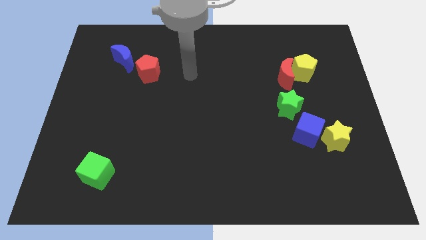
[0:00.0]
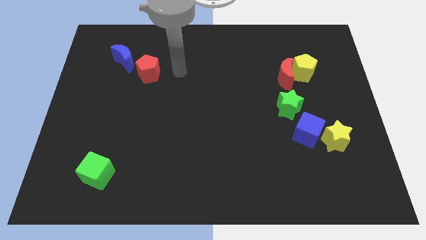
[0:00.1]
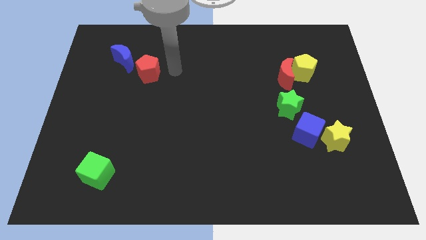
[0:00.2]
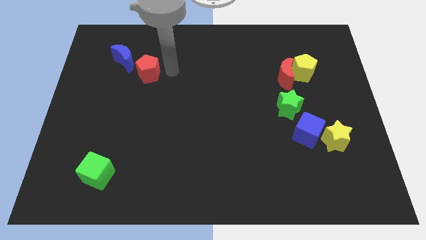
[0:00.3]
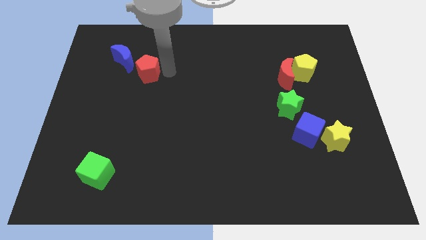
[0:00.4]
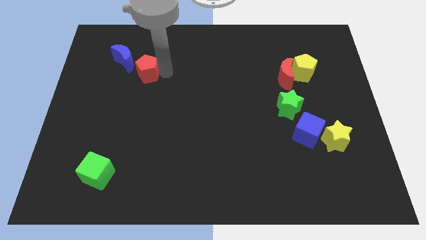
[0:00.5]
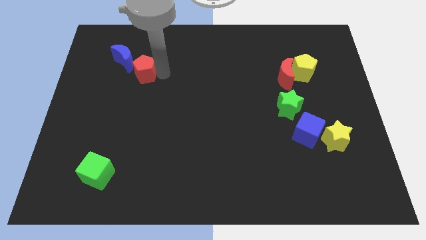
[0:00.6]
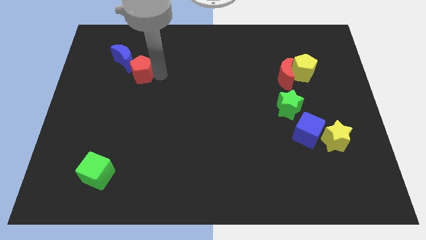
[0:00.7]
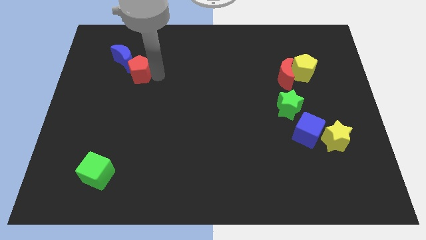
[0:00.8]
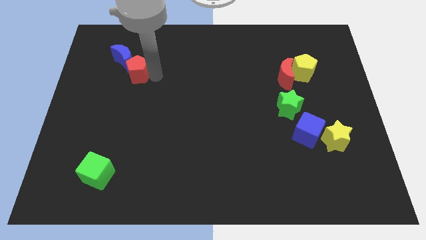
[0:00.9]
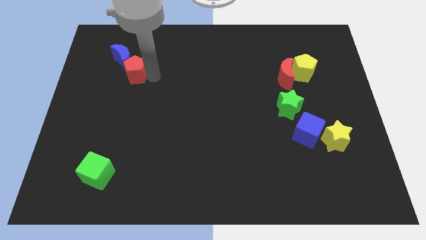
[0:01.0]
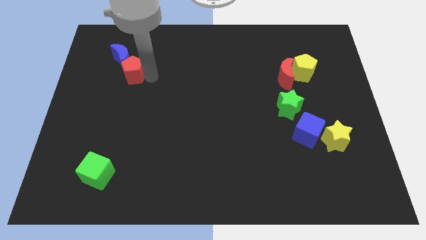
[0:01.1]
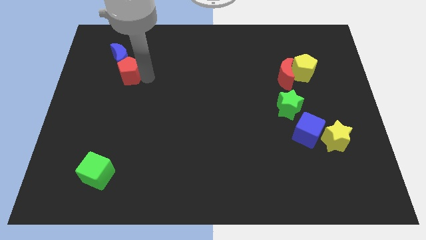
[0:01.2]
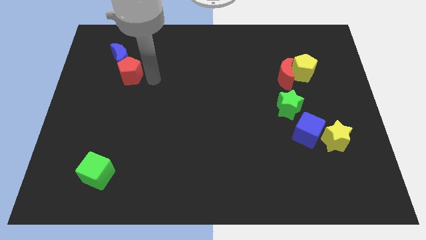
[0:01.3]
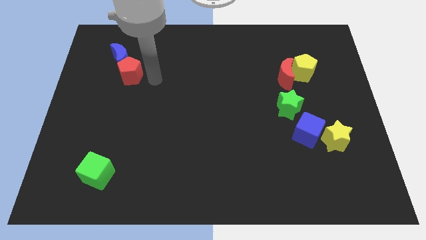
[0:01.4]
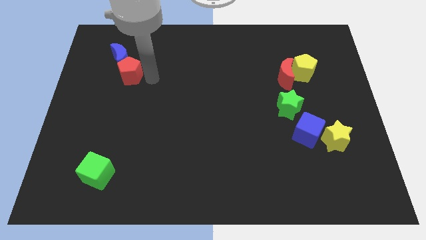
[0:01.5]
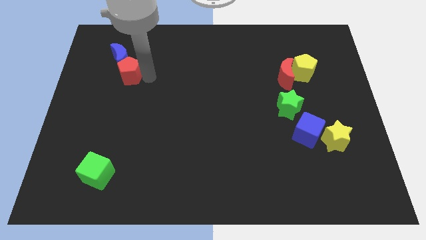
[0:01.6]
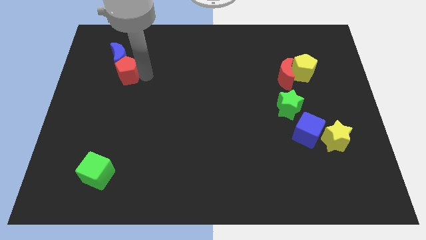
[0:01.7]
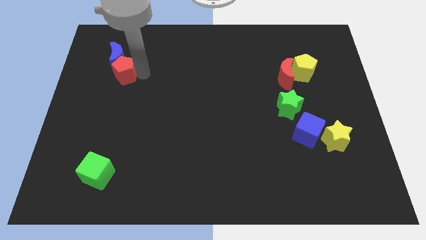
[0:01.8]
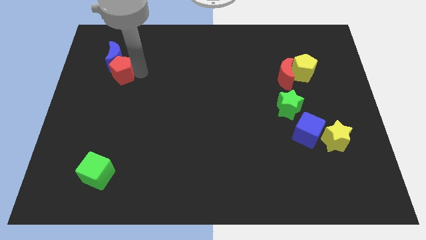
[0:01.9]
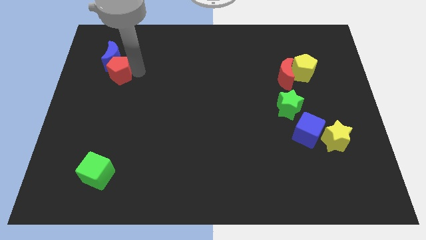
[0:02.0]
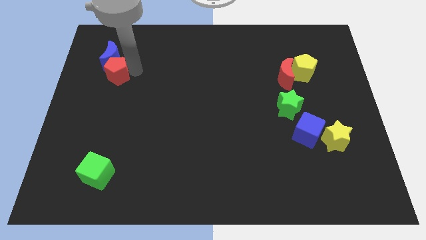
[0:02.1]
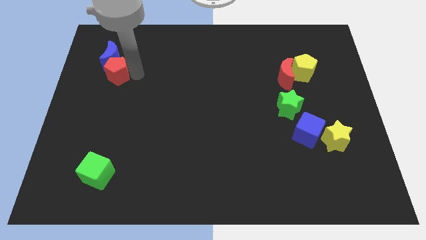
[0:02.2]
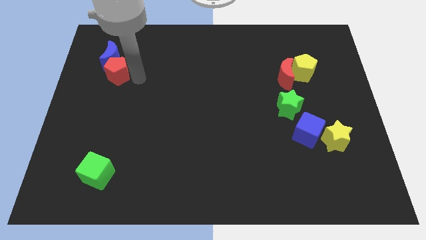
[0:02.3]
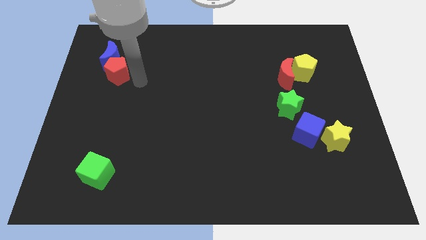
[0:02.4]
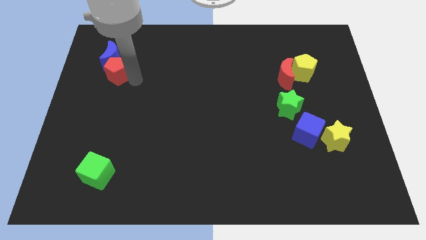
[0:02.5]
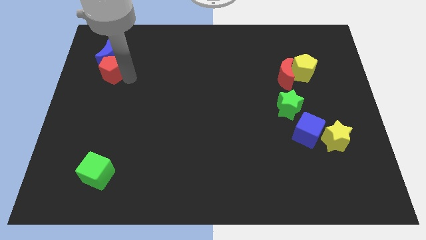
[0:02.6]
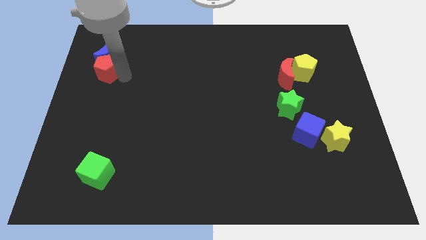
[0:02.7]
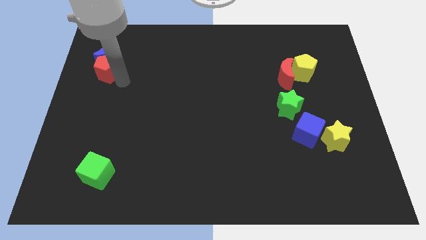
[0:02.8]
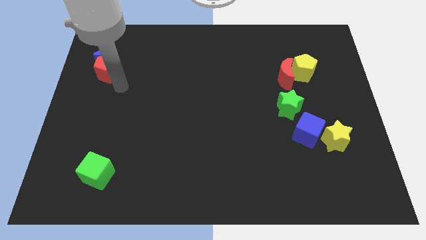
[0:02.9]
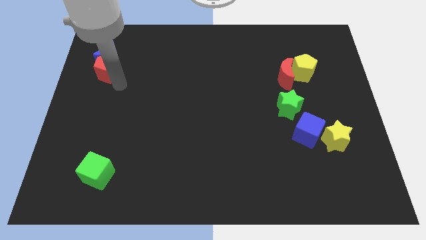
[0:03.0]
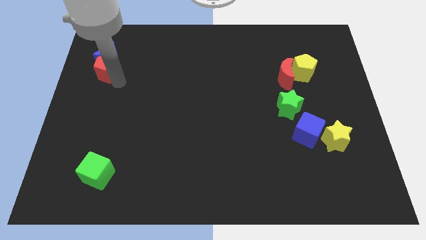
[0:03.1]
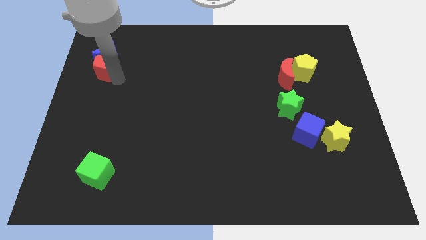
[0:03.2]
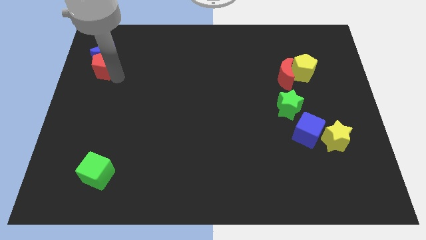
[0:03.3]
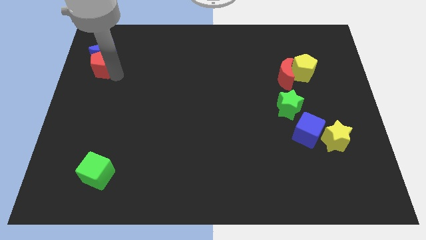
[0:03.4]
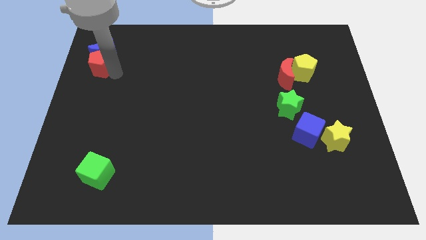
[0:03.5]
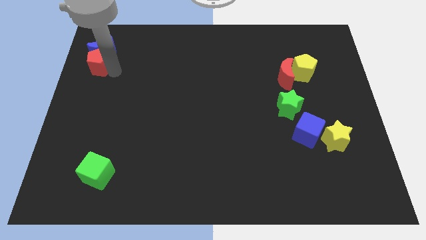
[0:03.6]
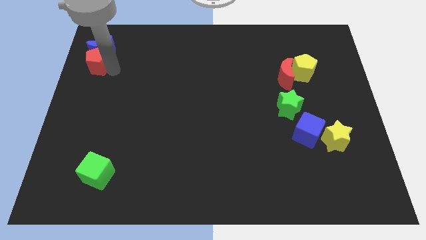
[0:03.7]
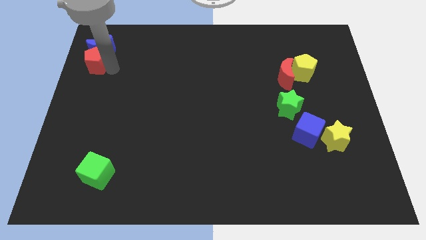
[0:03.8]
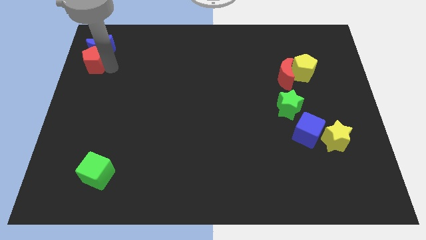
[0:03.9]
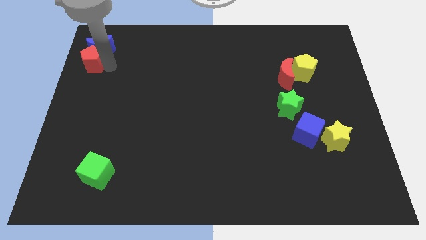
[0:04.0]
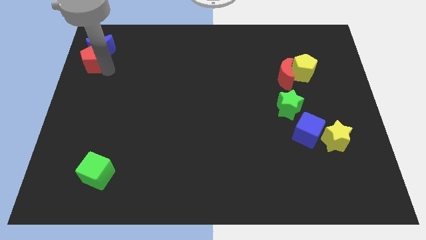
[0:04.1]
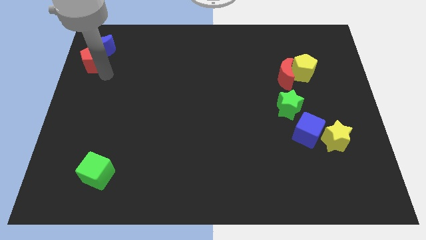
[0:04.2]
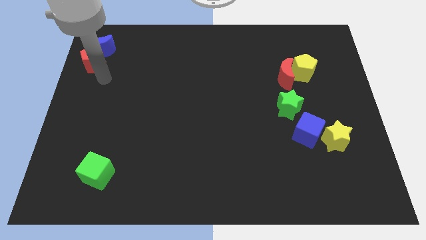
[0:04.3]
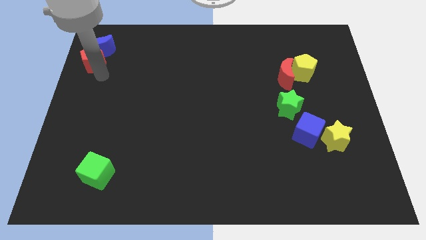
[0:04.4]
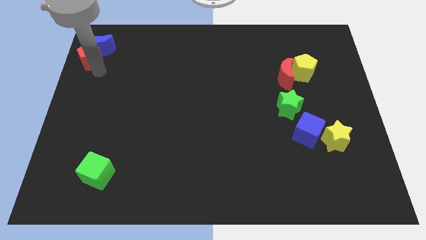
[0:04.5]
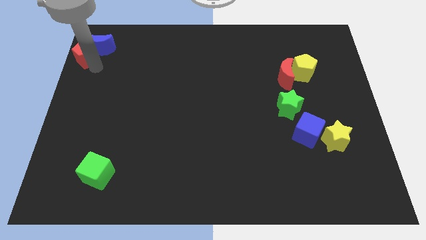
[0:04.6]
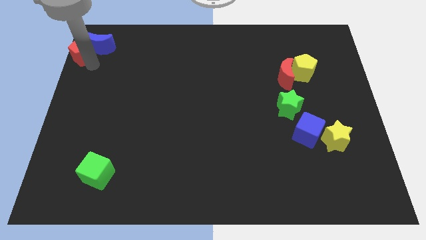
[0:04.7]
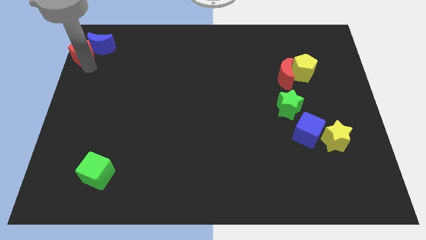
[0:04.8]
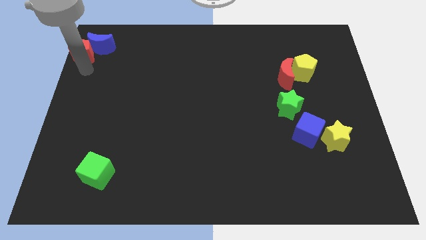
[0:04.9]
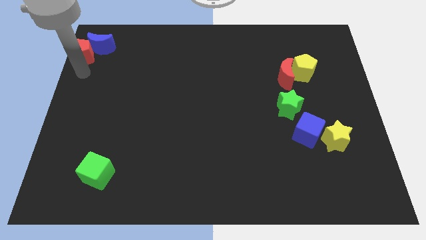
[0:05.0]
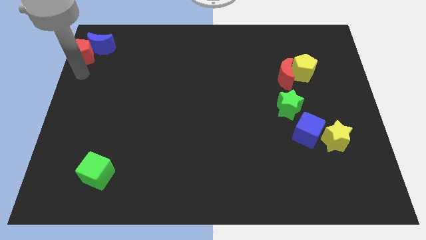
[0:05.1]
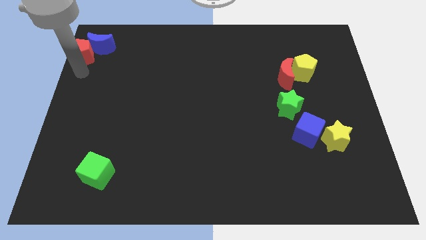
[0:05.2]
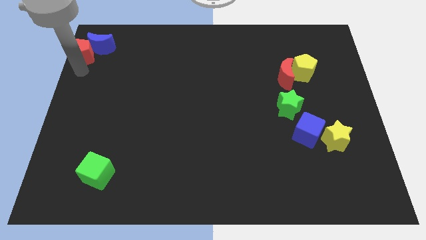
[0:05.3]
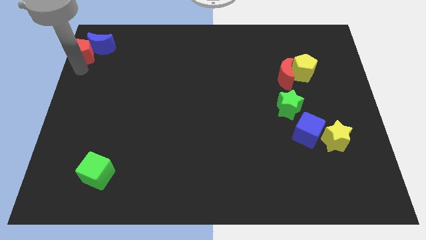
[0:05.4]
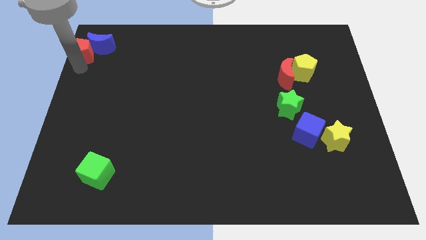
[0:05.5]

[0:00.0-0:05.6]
push the red pentagon to the top left

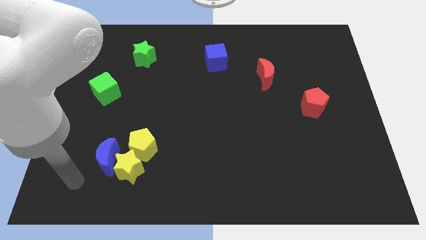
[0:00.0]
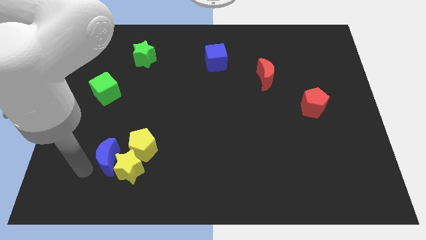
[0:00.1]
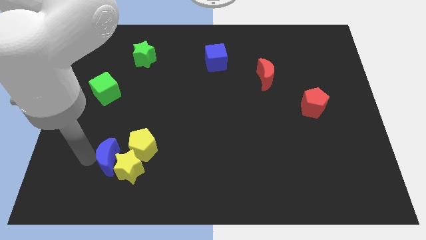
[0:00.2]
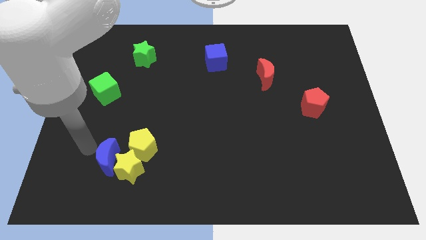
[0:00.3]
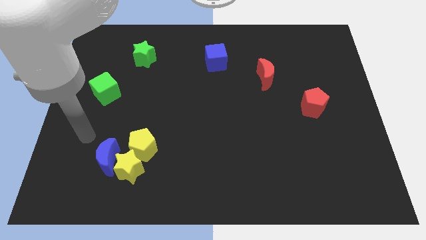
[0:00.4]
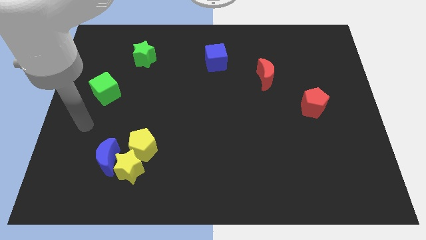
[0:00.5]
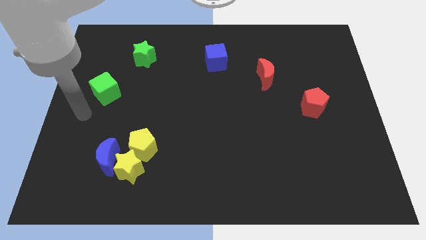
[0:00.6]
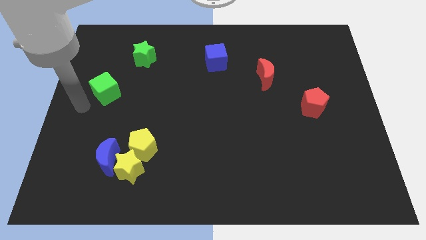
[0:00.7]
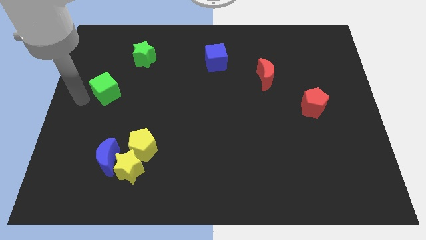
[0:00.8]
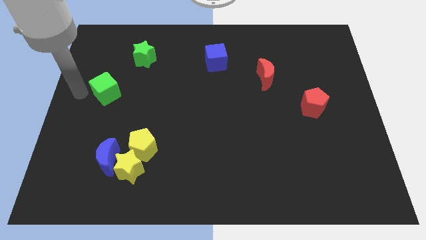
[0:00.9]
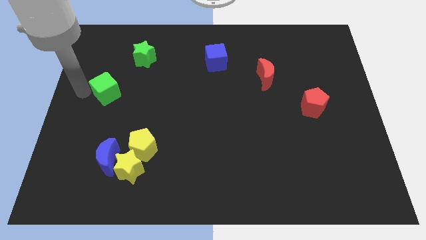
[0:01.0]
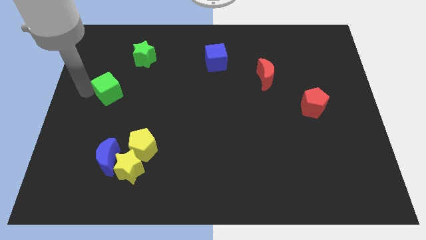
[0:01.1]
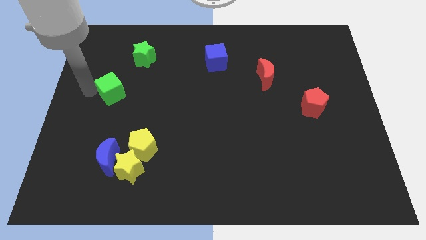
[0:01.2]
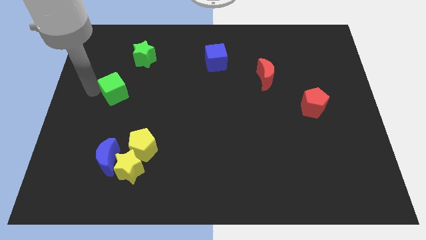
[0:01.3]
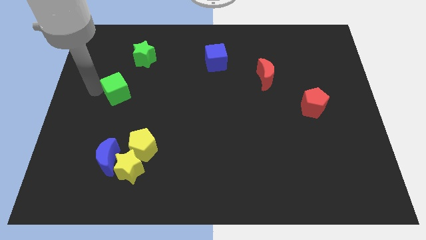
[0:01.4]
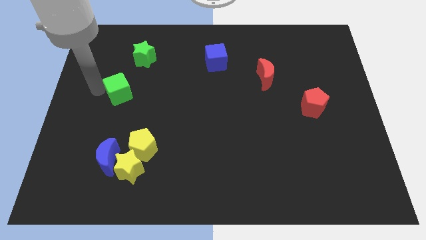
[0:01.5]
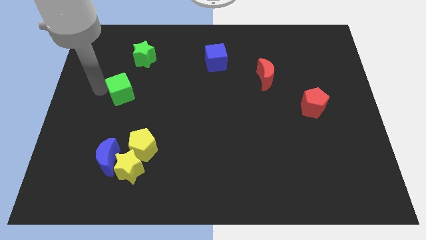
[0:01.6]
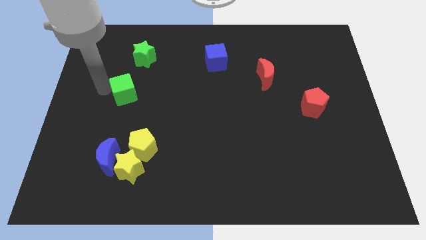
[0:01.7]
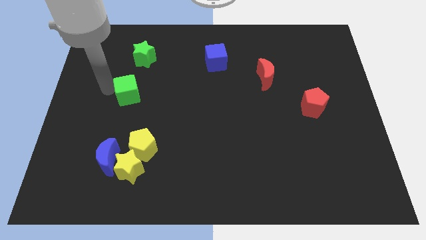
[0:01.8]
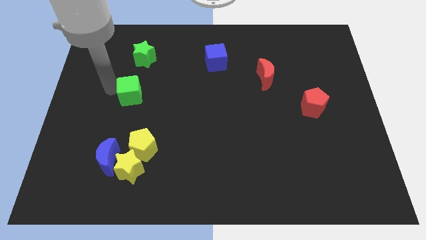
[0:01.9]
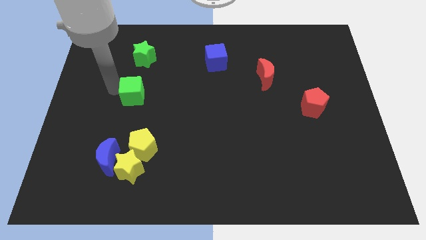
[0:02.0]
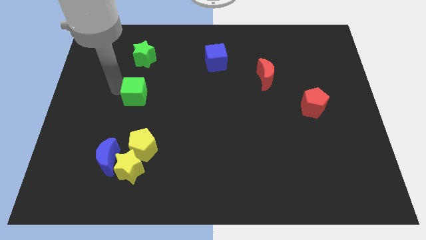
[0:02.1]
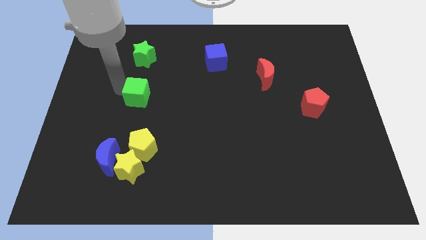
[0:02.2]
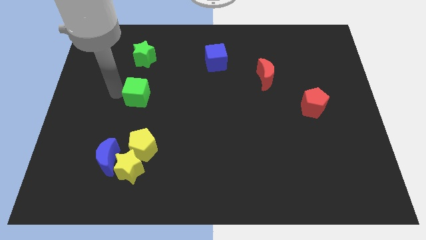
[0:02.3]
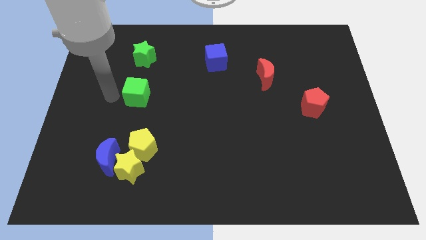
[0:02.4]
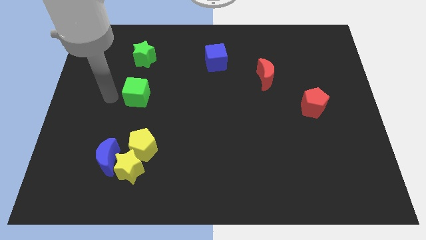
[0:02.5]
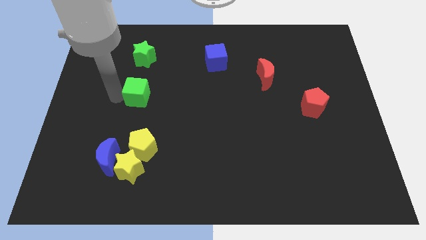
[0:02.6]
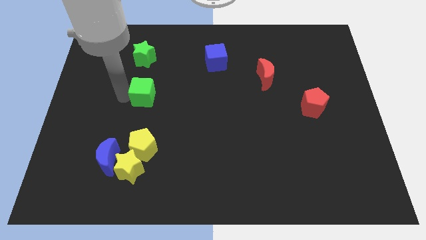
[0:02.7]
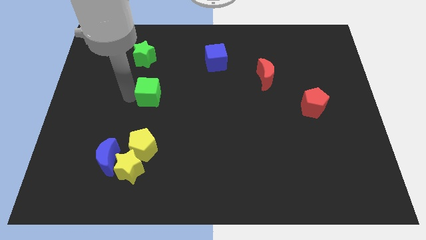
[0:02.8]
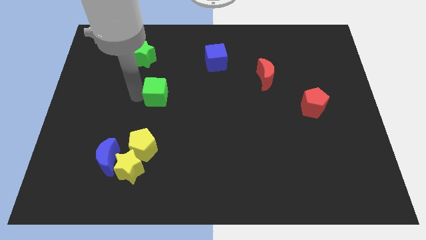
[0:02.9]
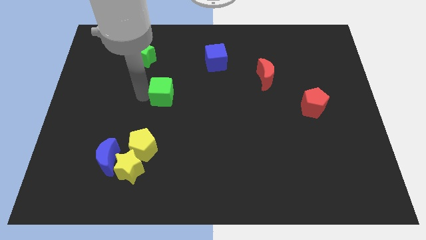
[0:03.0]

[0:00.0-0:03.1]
put the green cube to the middle of the board
